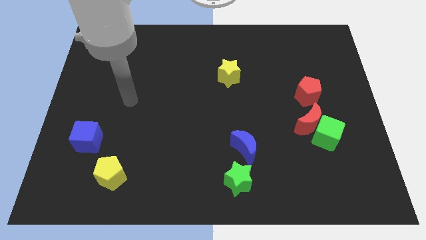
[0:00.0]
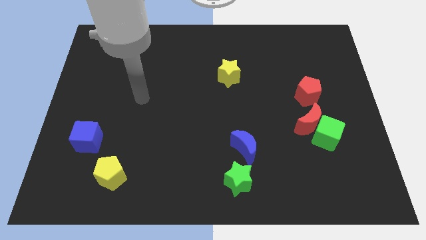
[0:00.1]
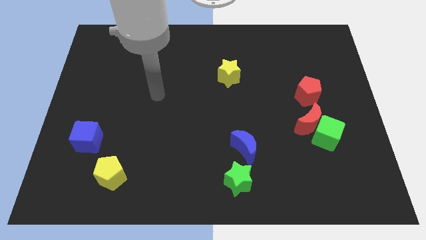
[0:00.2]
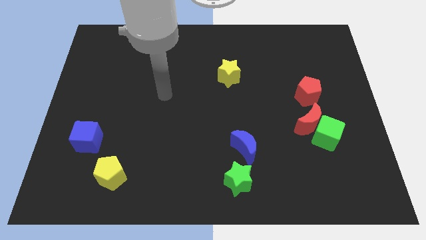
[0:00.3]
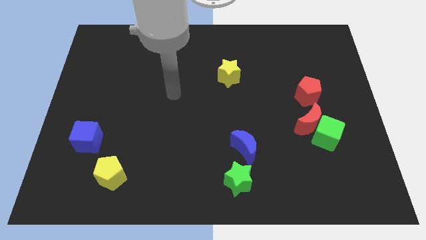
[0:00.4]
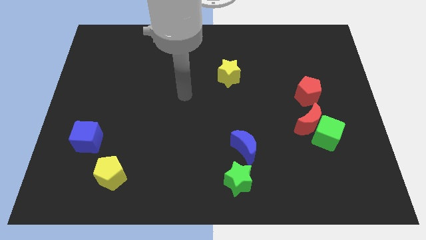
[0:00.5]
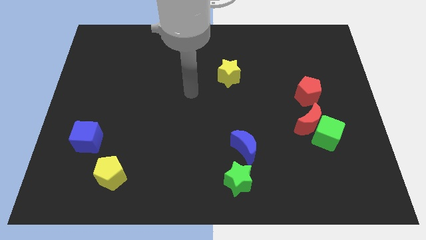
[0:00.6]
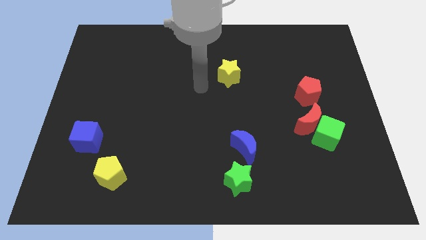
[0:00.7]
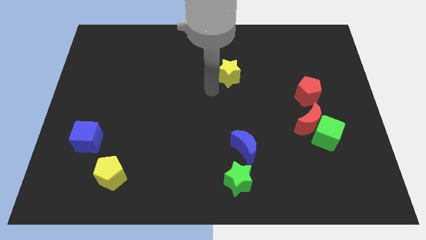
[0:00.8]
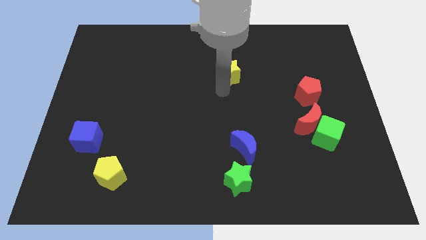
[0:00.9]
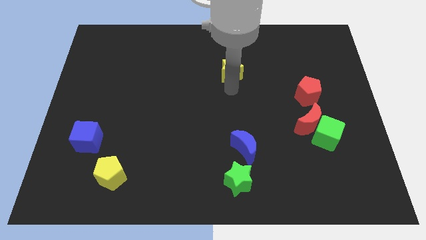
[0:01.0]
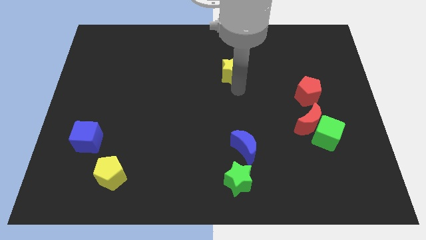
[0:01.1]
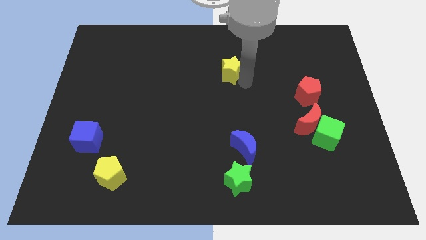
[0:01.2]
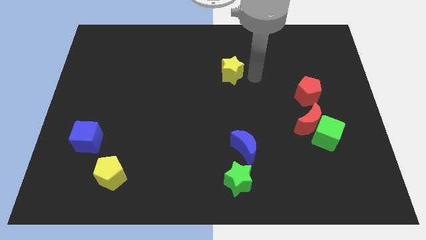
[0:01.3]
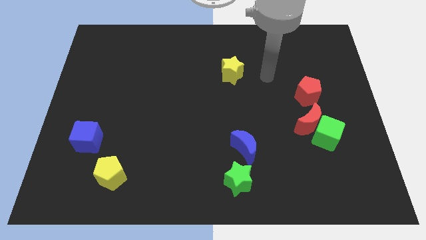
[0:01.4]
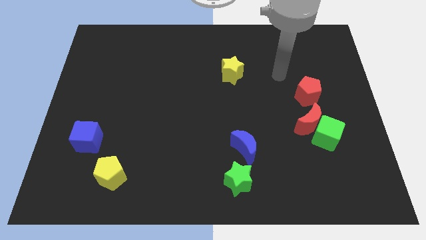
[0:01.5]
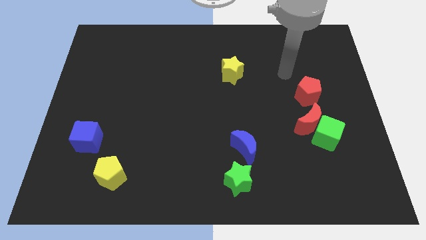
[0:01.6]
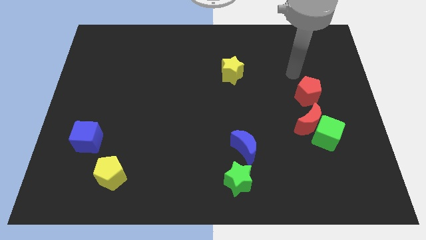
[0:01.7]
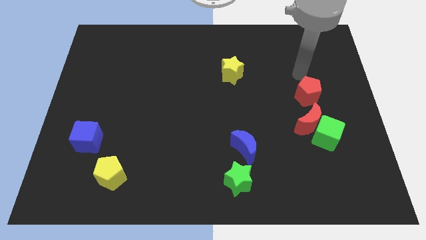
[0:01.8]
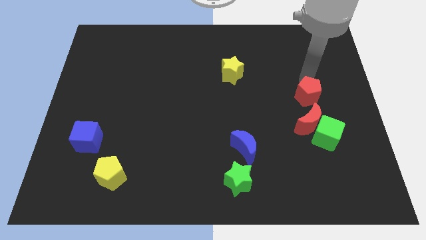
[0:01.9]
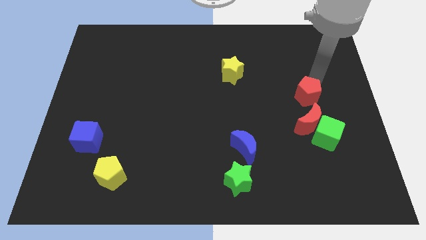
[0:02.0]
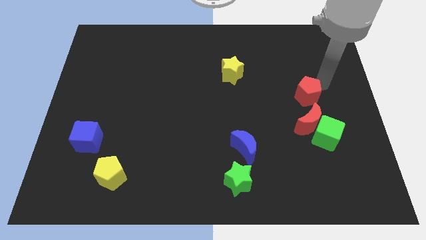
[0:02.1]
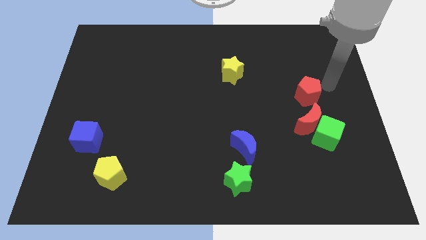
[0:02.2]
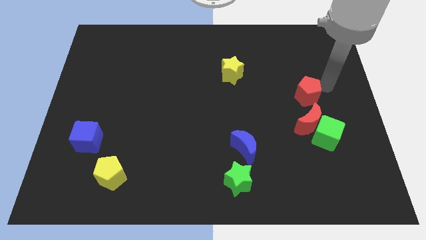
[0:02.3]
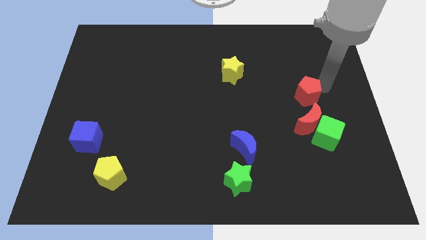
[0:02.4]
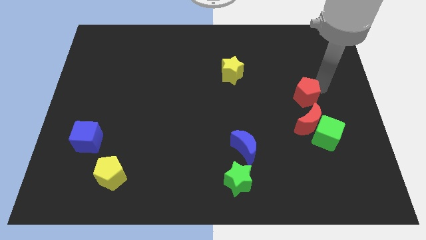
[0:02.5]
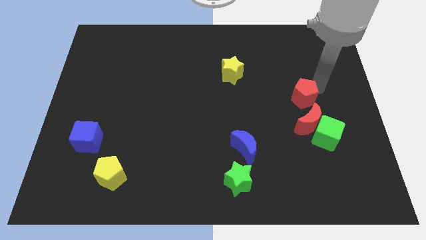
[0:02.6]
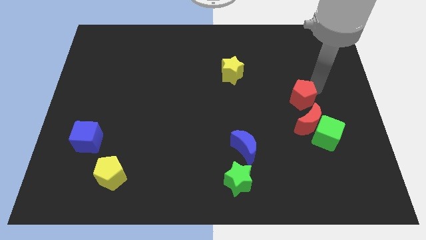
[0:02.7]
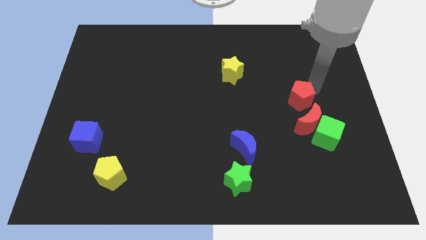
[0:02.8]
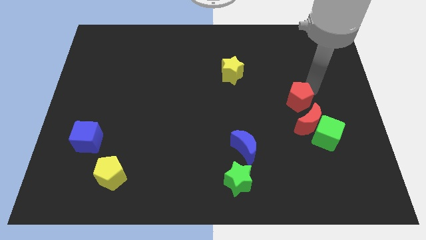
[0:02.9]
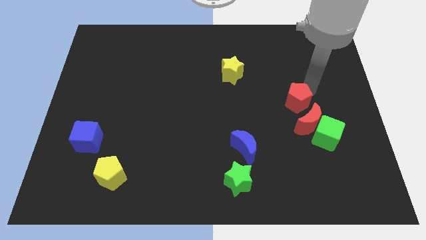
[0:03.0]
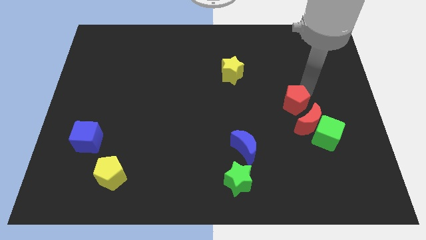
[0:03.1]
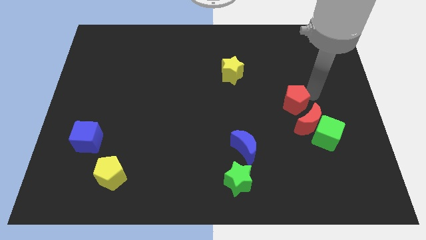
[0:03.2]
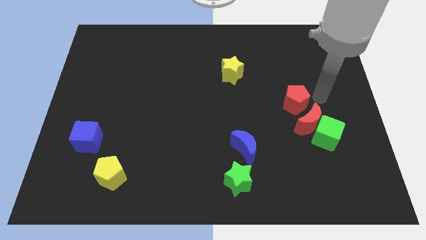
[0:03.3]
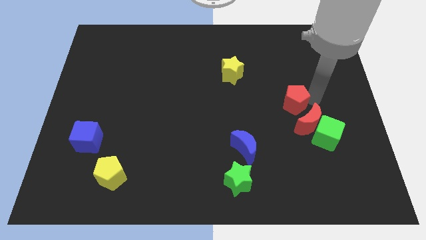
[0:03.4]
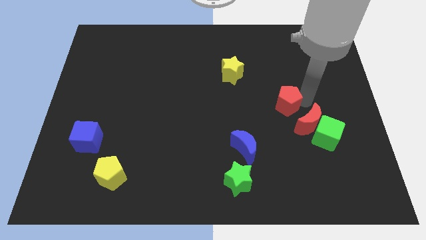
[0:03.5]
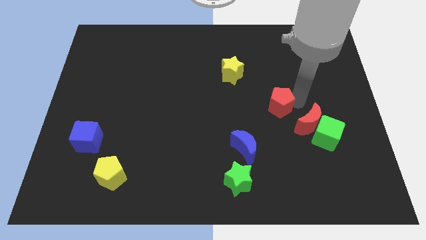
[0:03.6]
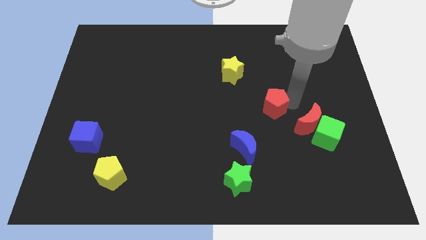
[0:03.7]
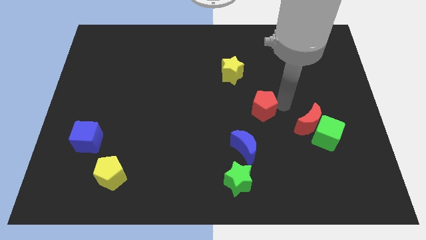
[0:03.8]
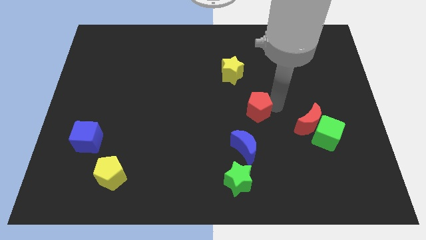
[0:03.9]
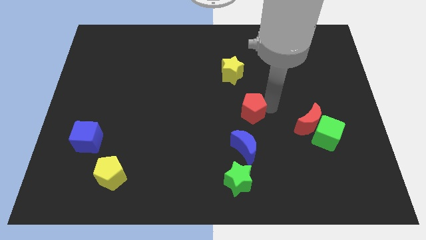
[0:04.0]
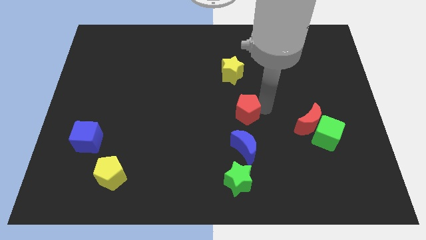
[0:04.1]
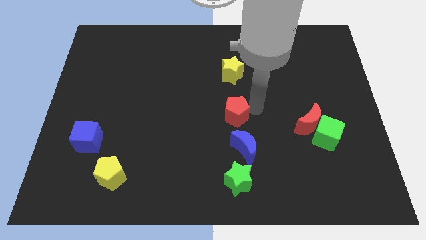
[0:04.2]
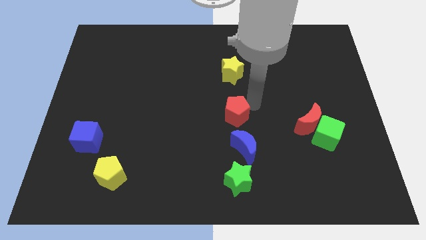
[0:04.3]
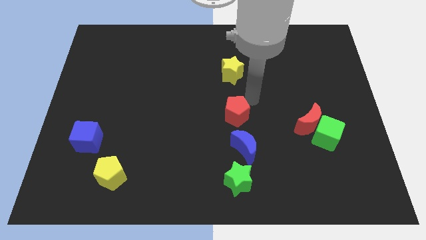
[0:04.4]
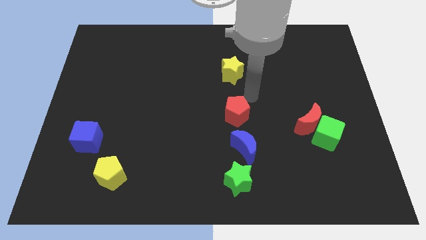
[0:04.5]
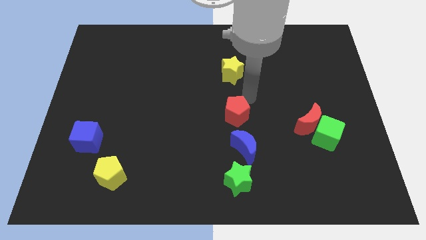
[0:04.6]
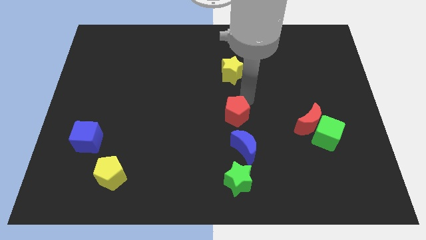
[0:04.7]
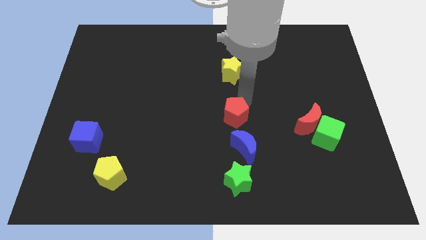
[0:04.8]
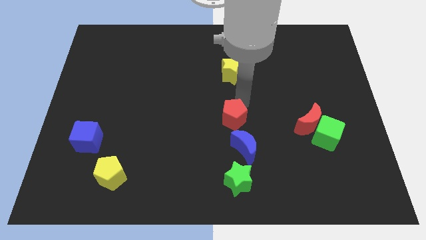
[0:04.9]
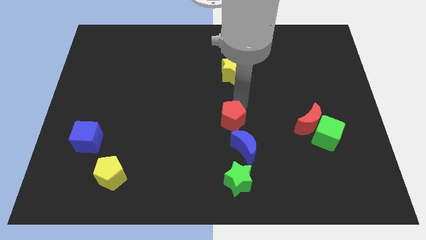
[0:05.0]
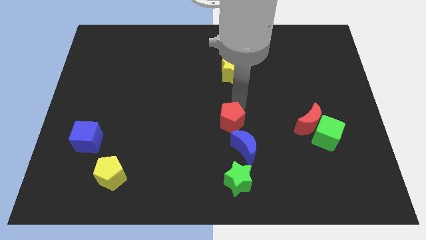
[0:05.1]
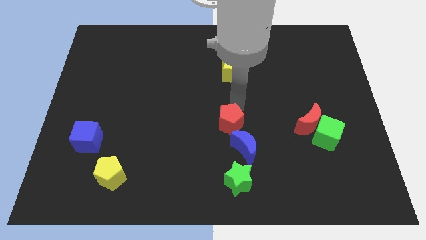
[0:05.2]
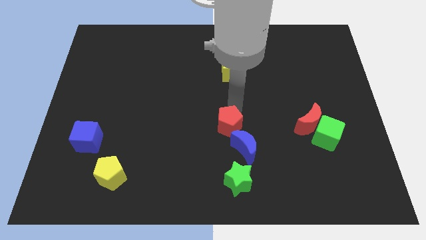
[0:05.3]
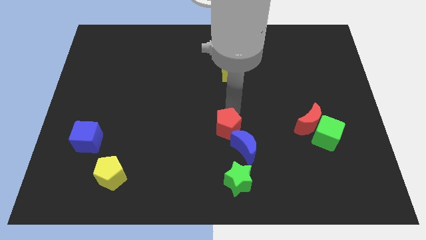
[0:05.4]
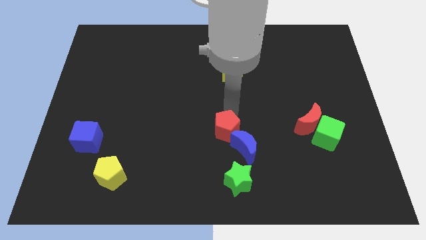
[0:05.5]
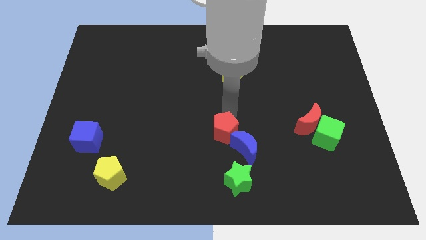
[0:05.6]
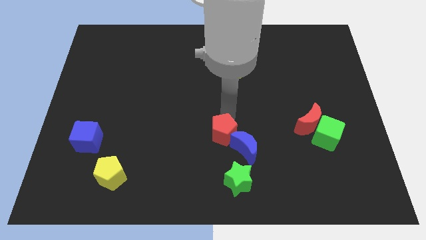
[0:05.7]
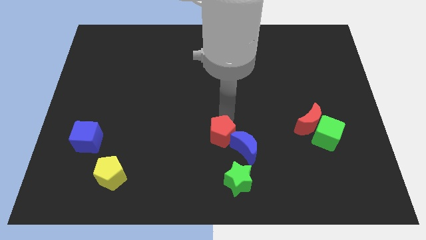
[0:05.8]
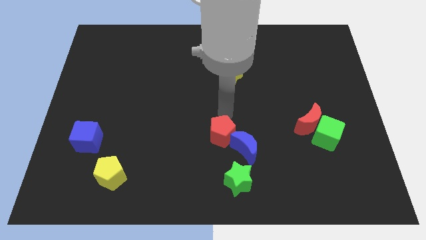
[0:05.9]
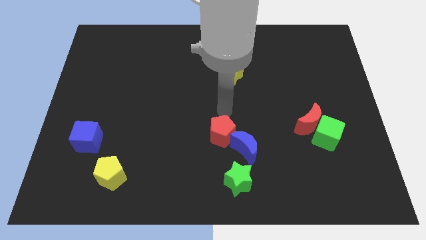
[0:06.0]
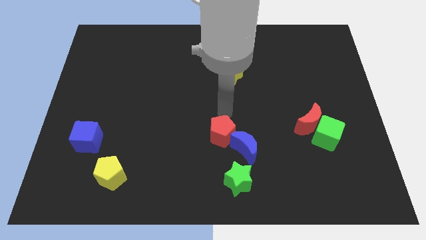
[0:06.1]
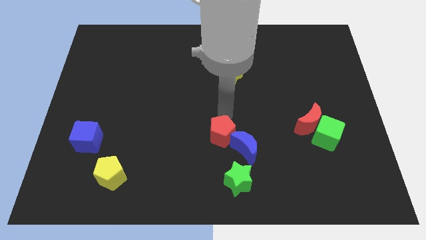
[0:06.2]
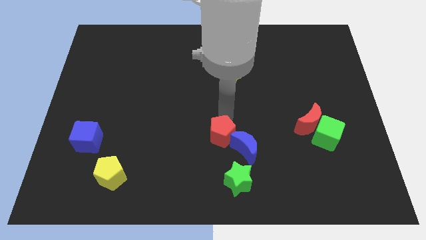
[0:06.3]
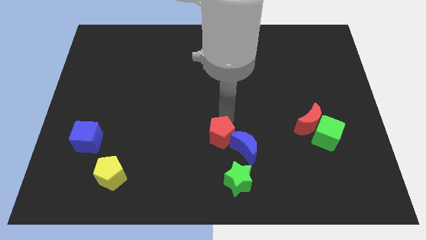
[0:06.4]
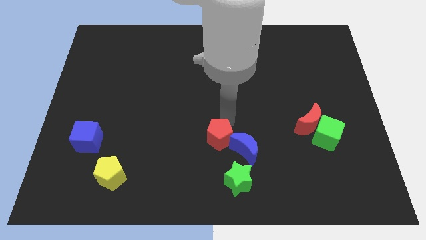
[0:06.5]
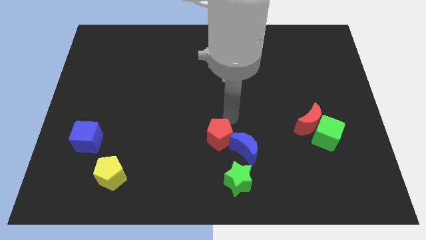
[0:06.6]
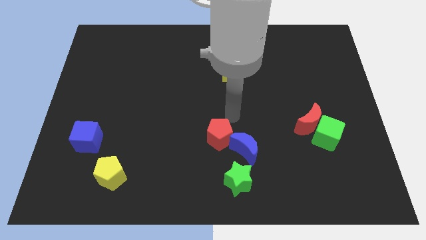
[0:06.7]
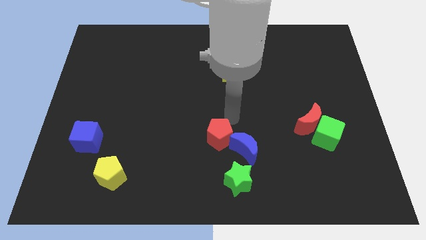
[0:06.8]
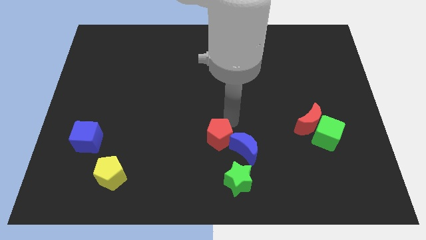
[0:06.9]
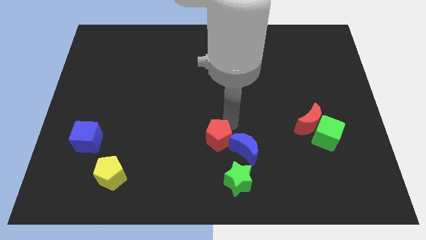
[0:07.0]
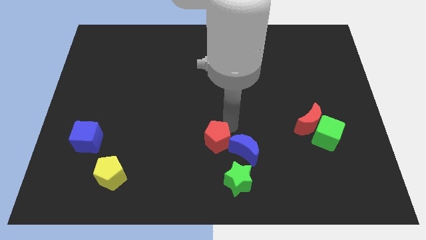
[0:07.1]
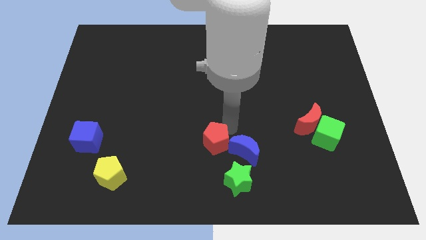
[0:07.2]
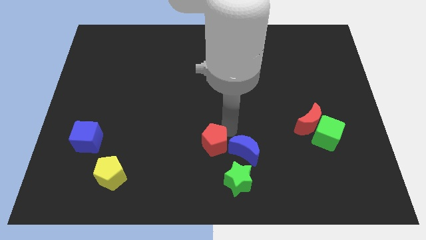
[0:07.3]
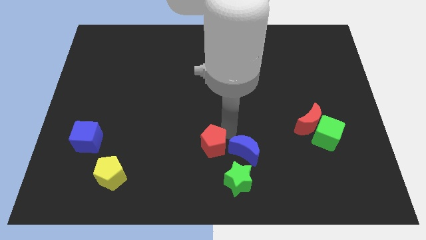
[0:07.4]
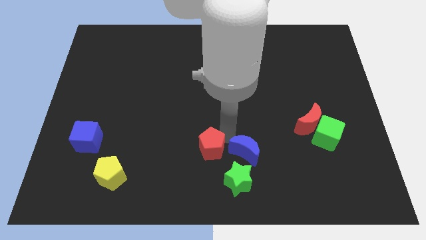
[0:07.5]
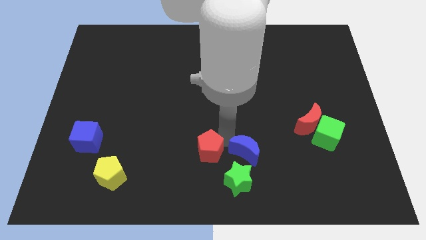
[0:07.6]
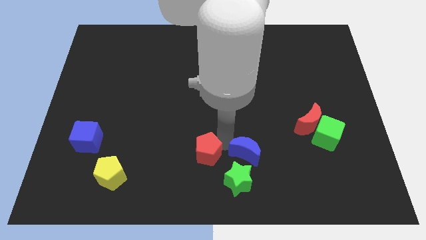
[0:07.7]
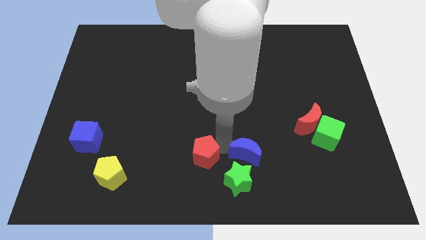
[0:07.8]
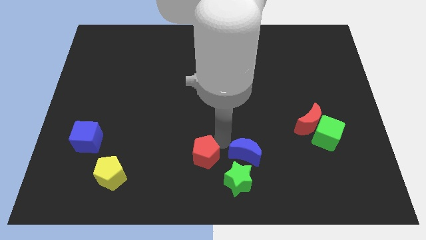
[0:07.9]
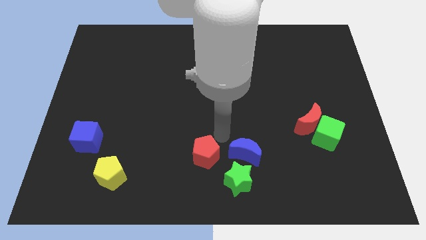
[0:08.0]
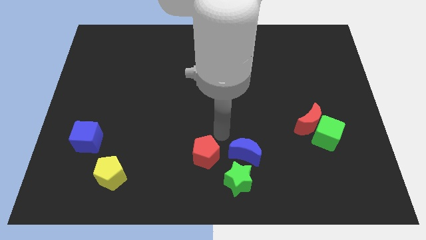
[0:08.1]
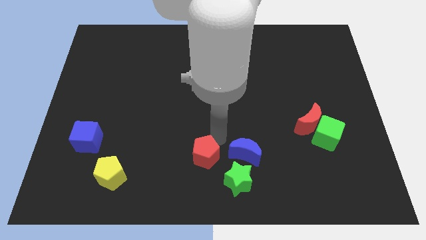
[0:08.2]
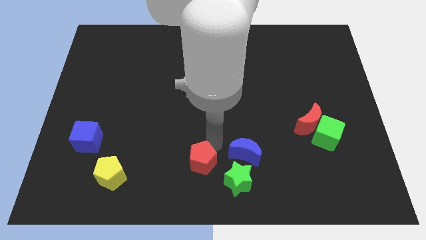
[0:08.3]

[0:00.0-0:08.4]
put the red pentagon left of the green star
